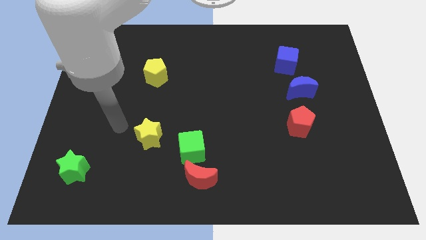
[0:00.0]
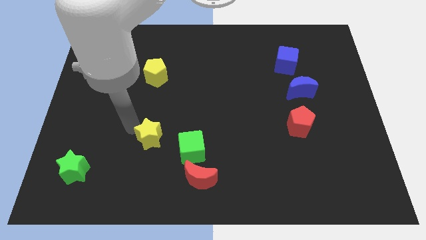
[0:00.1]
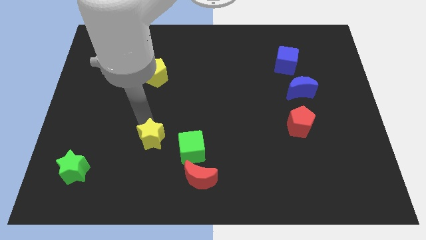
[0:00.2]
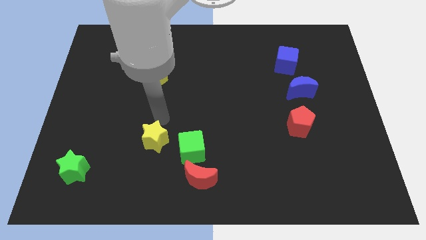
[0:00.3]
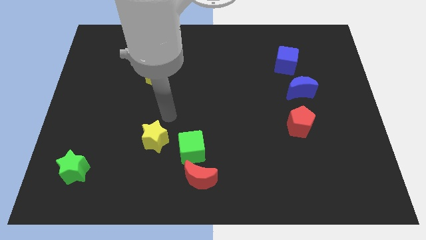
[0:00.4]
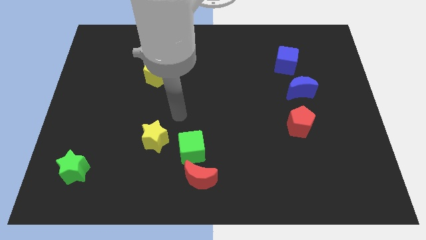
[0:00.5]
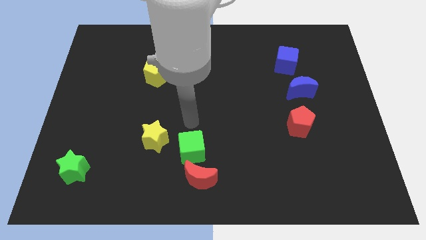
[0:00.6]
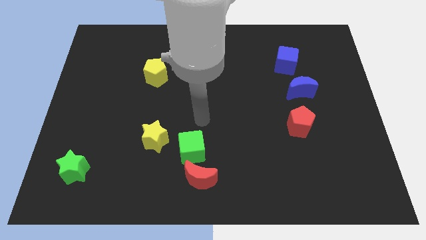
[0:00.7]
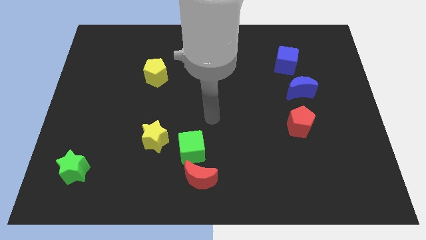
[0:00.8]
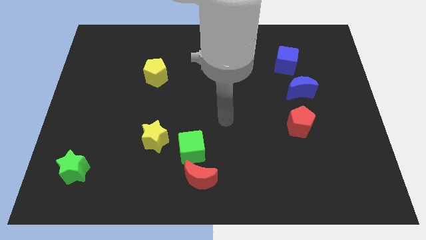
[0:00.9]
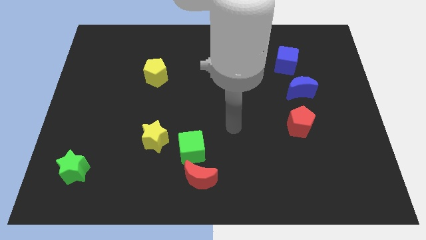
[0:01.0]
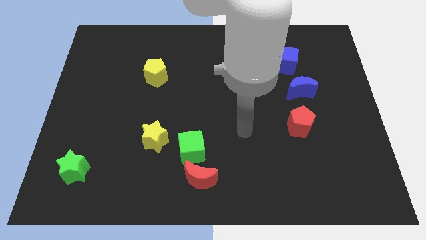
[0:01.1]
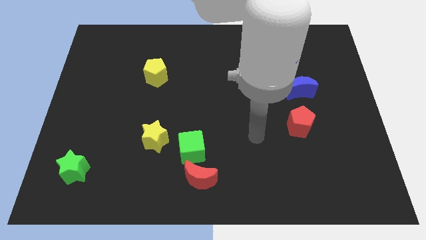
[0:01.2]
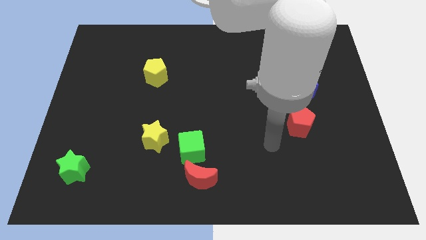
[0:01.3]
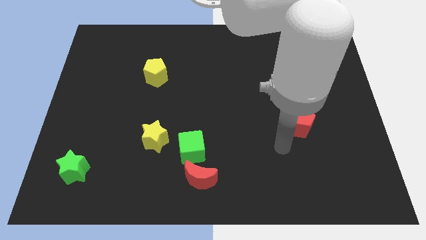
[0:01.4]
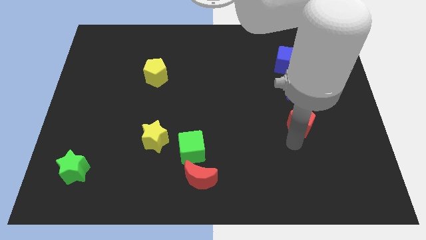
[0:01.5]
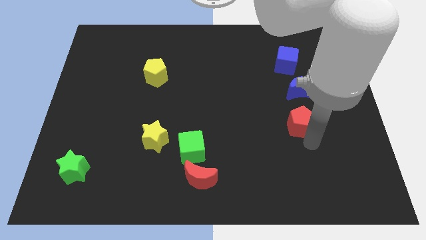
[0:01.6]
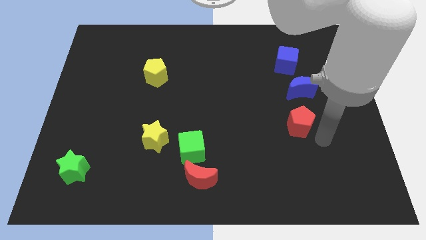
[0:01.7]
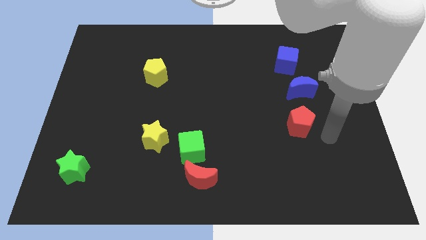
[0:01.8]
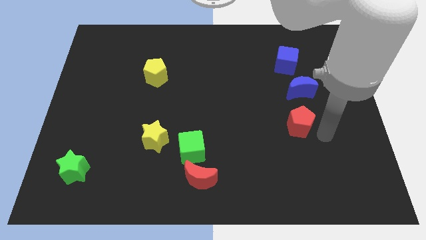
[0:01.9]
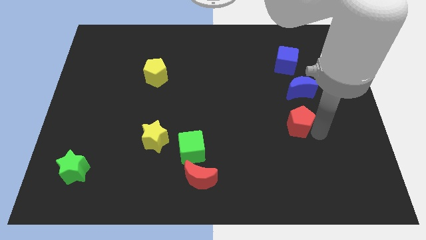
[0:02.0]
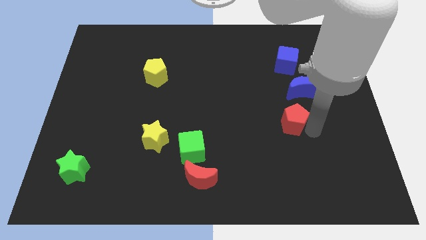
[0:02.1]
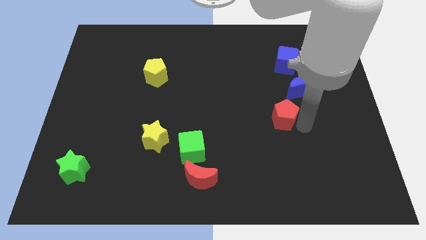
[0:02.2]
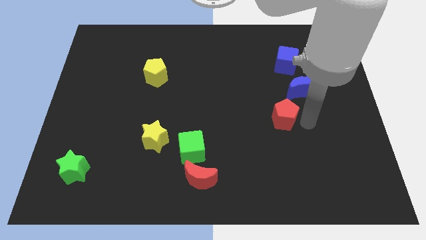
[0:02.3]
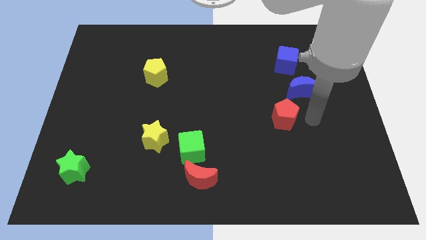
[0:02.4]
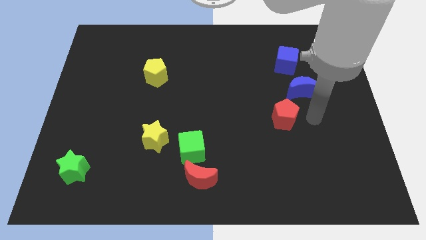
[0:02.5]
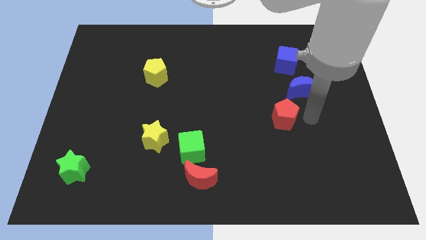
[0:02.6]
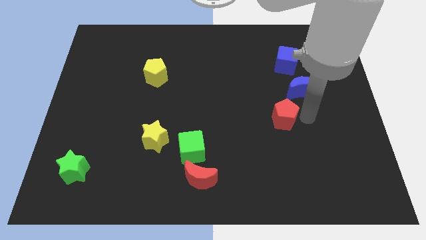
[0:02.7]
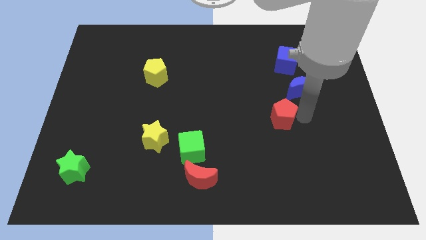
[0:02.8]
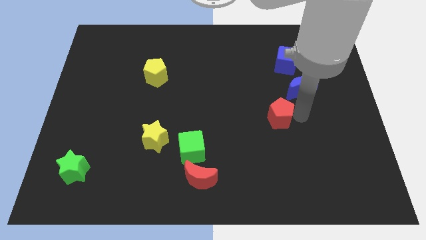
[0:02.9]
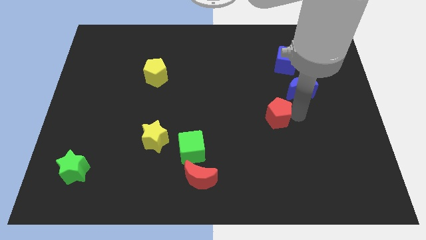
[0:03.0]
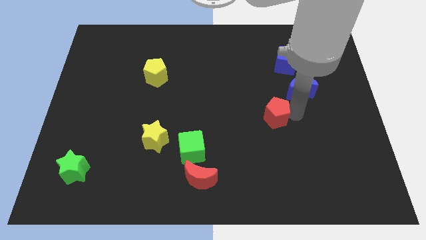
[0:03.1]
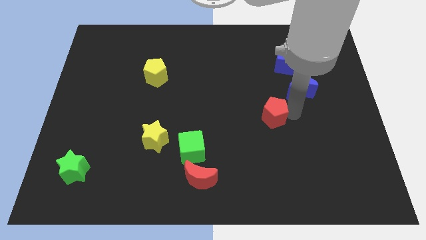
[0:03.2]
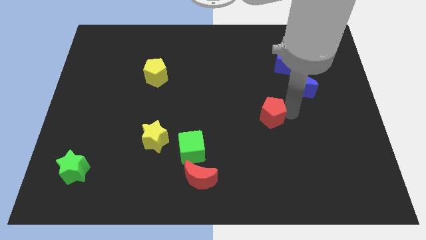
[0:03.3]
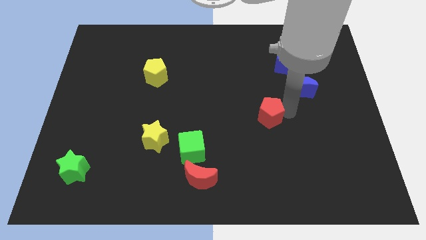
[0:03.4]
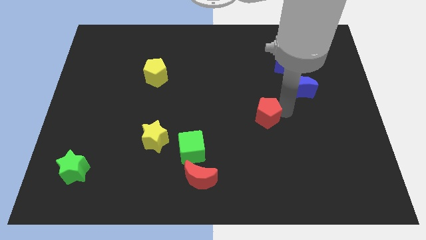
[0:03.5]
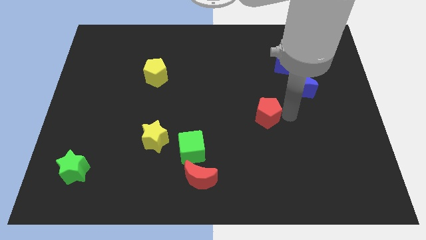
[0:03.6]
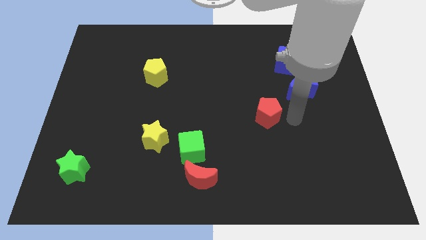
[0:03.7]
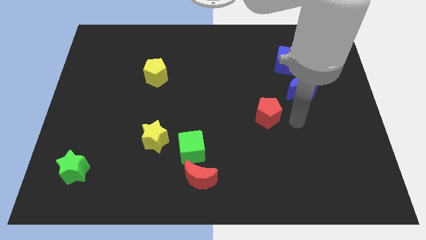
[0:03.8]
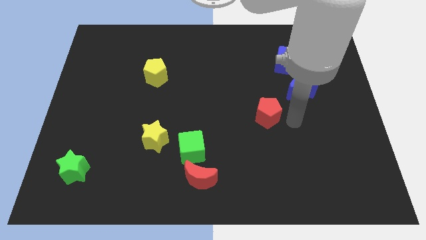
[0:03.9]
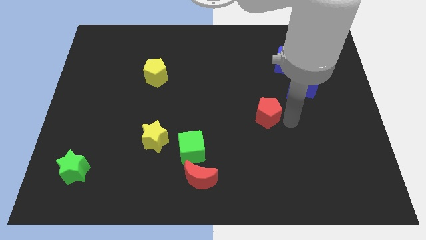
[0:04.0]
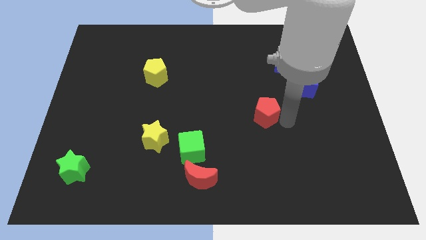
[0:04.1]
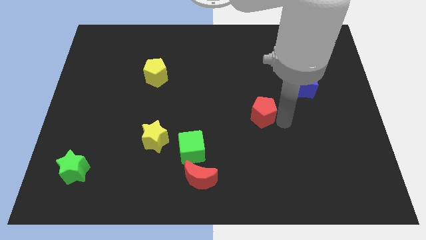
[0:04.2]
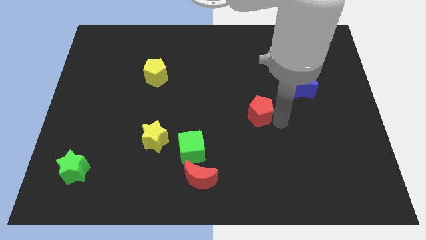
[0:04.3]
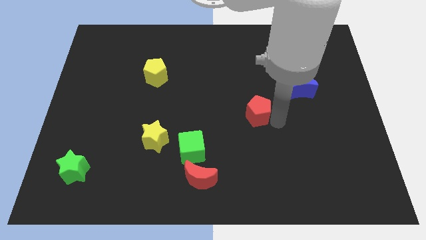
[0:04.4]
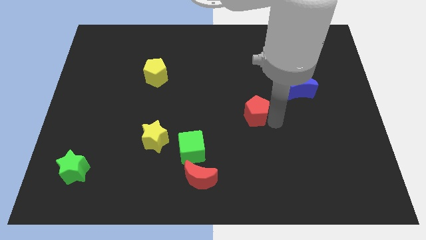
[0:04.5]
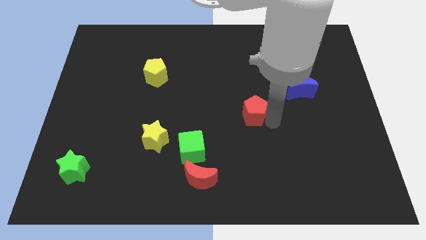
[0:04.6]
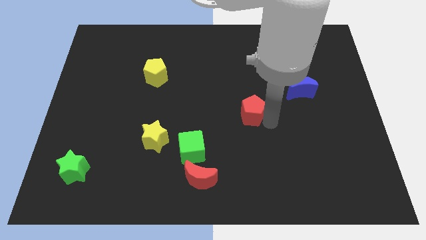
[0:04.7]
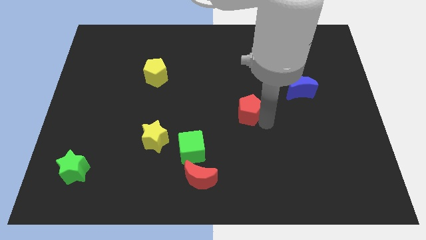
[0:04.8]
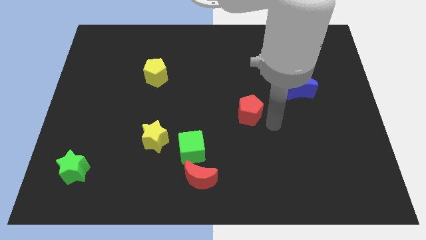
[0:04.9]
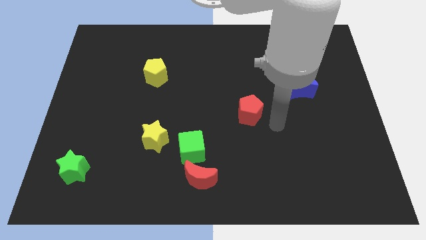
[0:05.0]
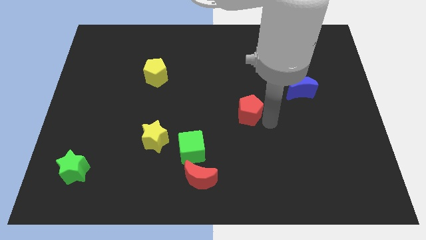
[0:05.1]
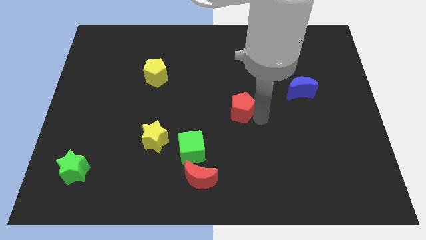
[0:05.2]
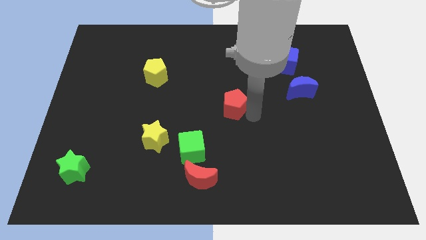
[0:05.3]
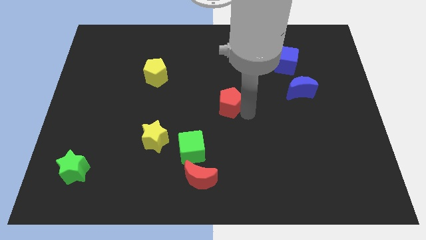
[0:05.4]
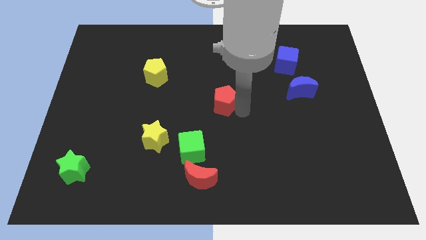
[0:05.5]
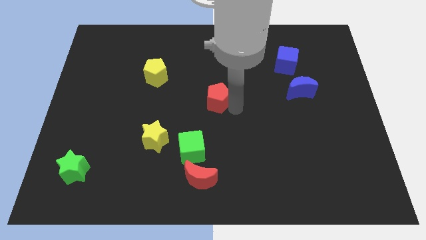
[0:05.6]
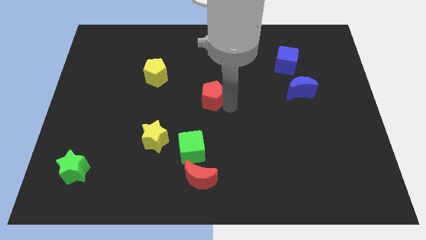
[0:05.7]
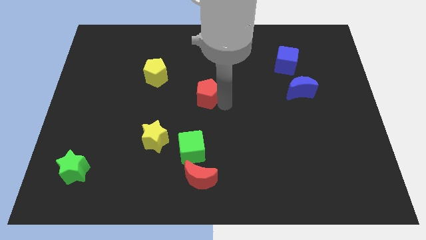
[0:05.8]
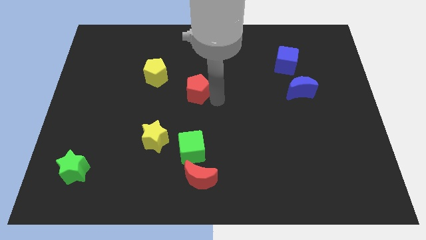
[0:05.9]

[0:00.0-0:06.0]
push the red pentagon to the bottom right of the yellow pentagon

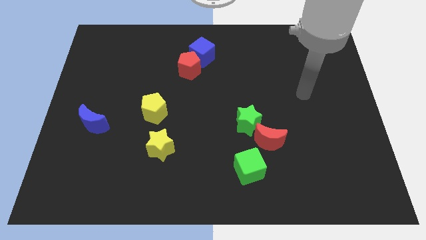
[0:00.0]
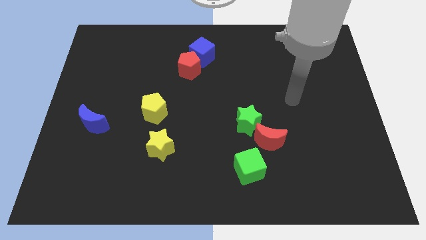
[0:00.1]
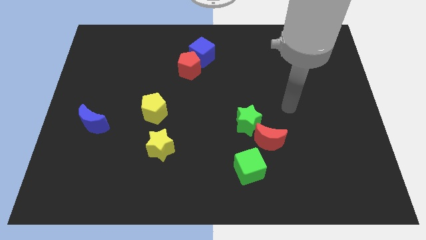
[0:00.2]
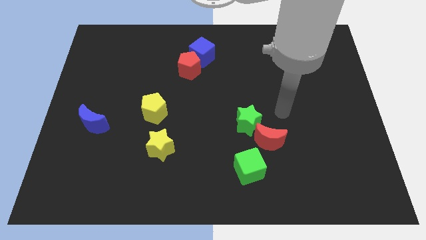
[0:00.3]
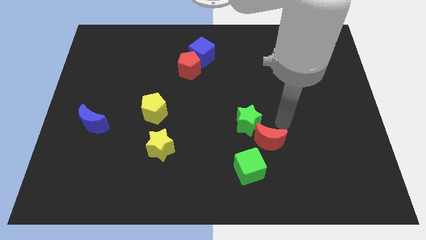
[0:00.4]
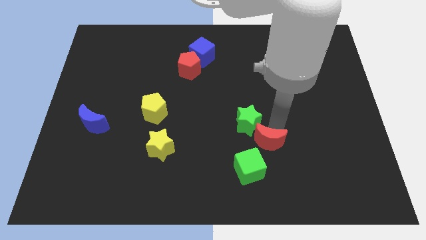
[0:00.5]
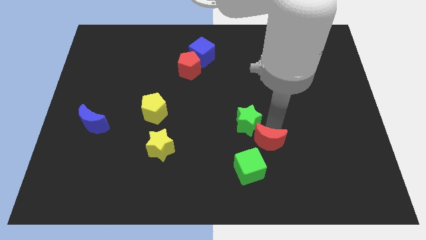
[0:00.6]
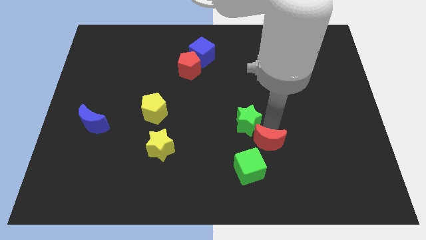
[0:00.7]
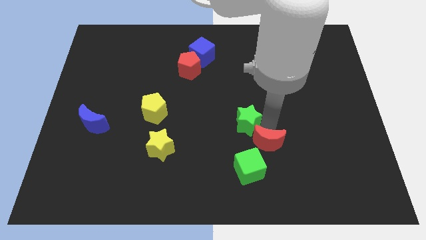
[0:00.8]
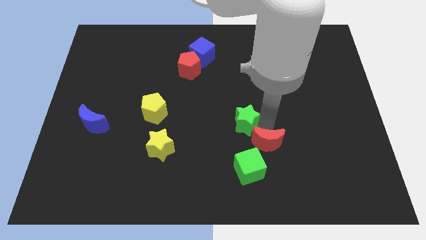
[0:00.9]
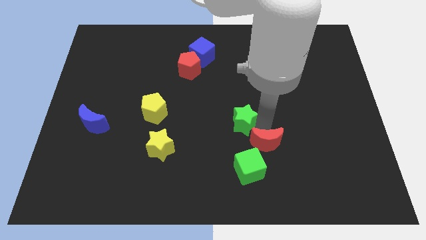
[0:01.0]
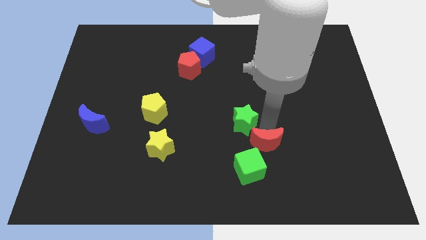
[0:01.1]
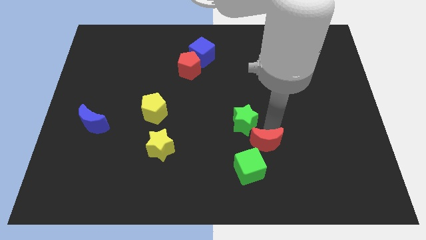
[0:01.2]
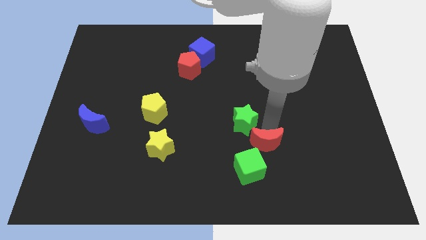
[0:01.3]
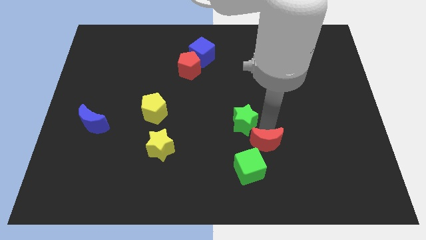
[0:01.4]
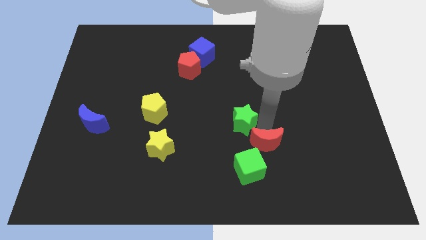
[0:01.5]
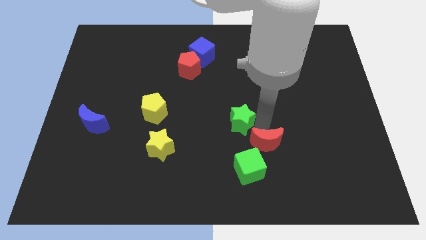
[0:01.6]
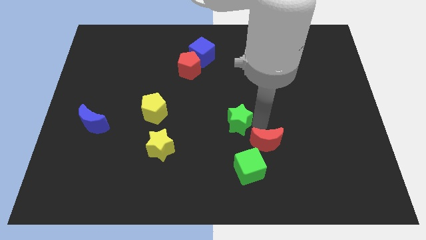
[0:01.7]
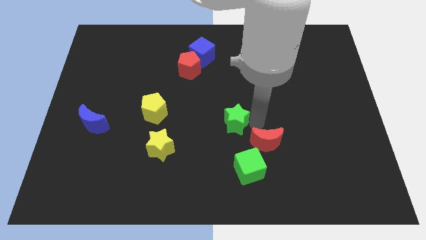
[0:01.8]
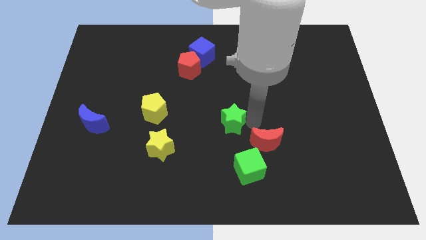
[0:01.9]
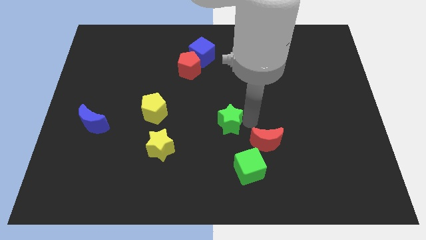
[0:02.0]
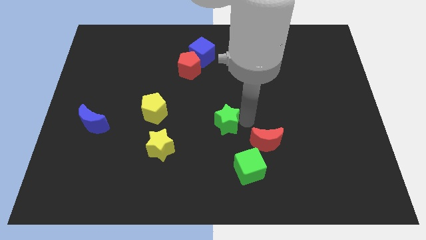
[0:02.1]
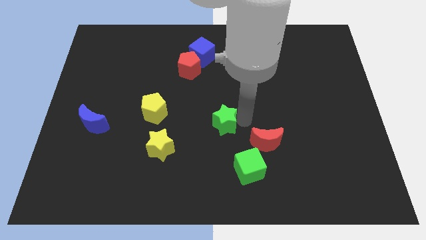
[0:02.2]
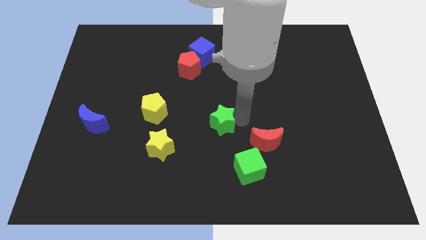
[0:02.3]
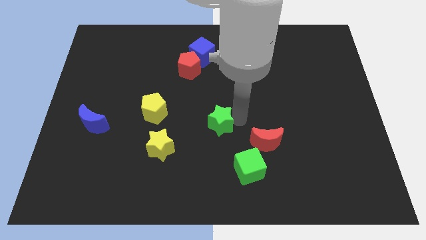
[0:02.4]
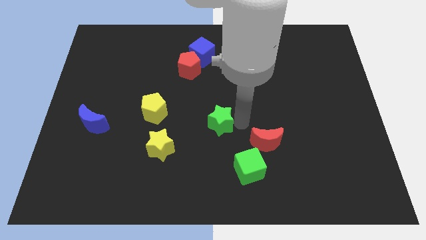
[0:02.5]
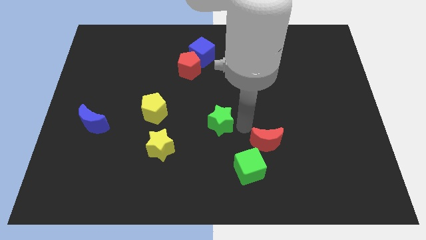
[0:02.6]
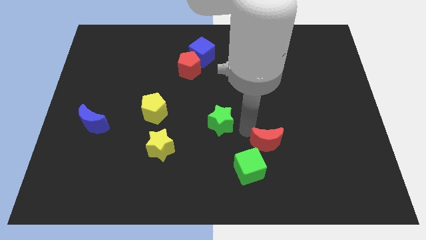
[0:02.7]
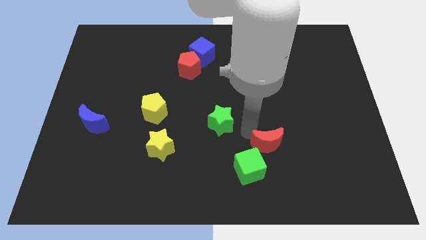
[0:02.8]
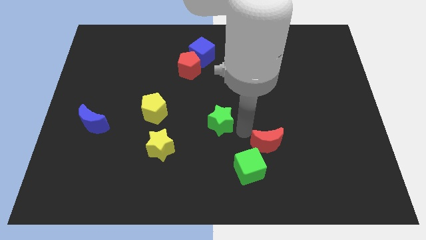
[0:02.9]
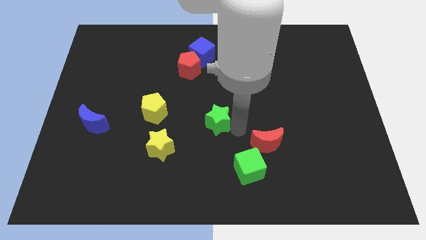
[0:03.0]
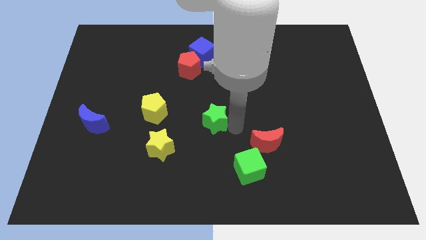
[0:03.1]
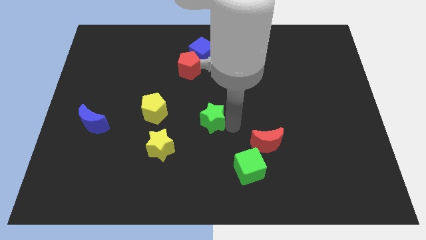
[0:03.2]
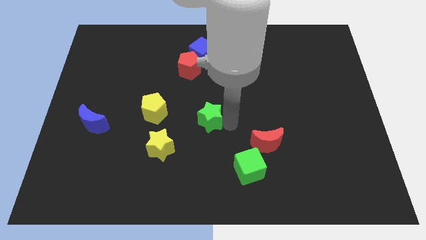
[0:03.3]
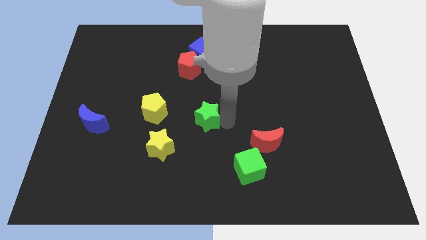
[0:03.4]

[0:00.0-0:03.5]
slide the green star to the top right side of the yellow star
